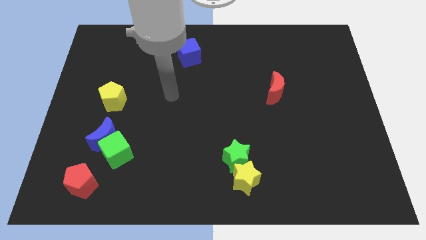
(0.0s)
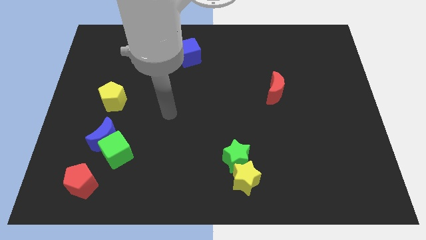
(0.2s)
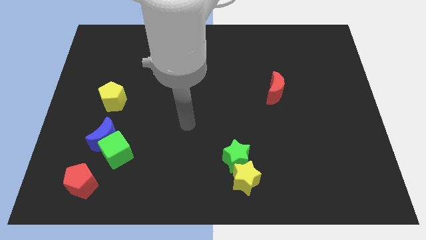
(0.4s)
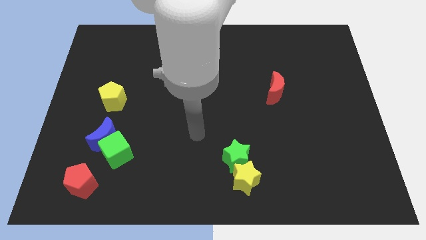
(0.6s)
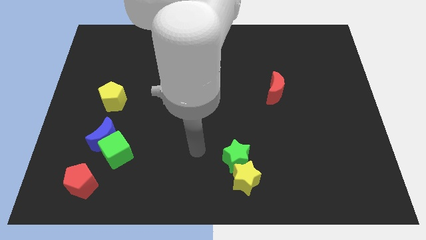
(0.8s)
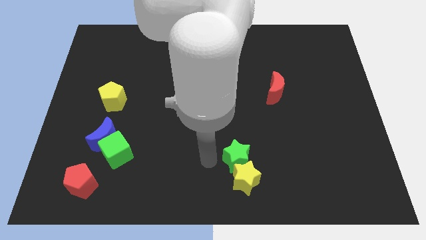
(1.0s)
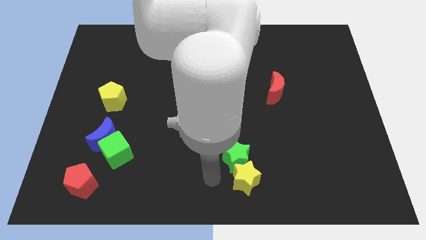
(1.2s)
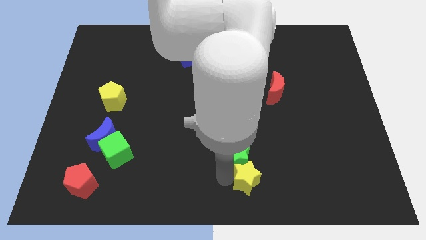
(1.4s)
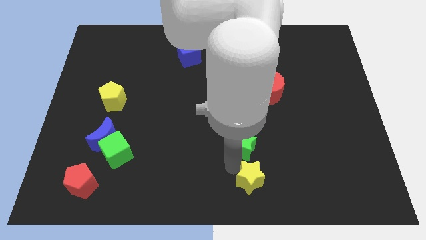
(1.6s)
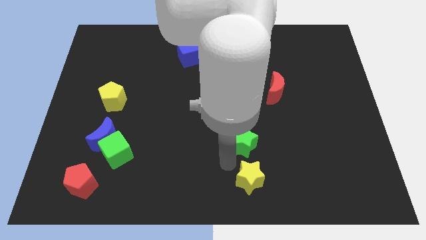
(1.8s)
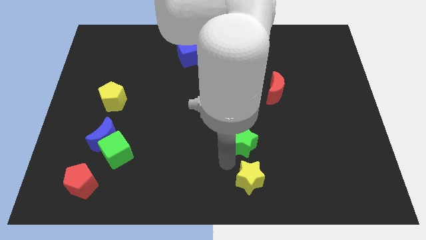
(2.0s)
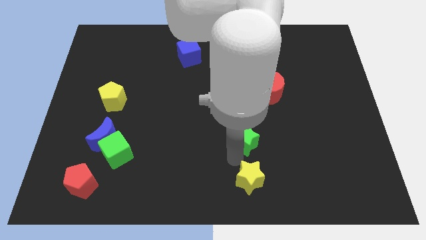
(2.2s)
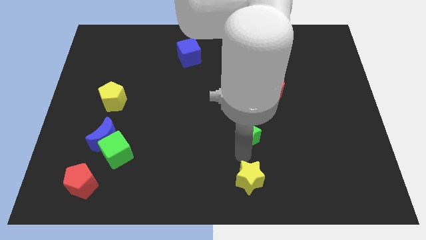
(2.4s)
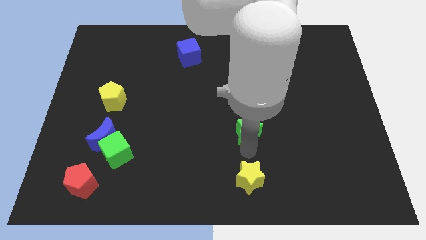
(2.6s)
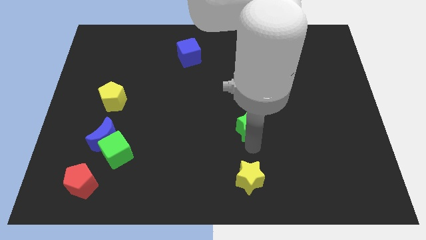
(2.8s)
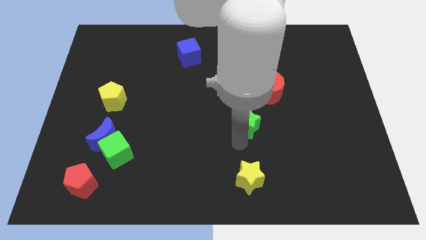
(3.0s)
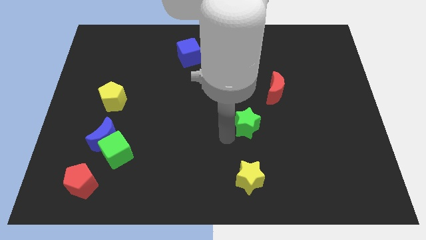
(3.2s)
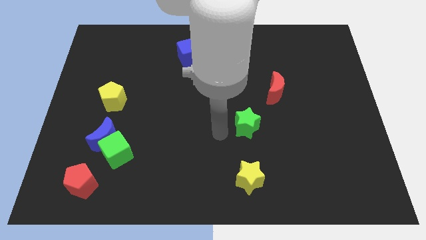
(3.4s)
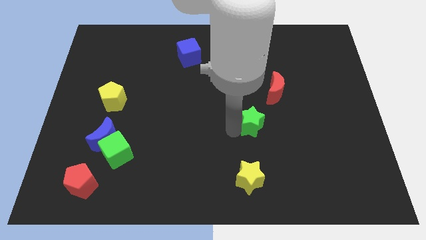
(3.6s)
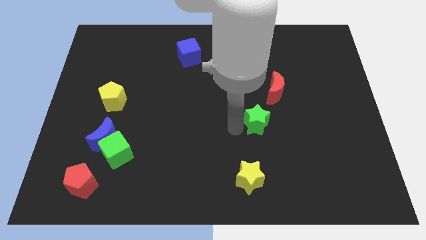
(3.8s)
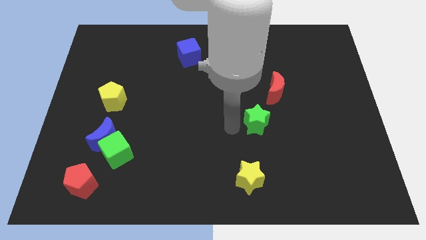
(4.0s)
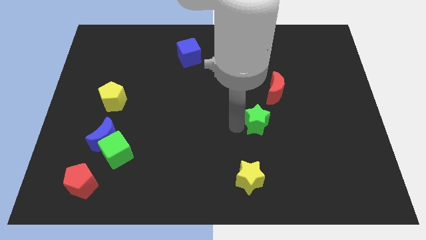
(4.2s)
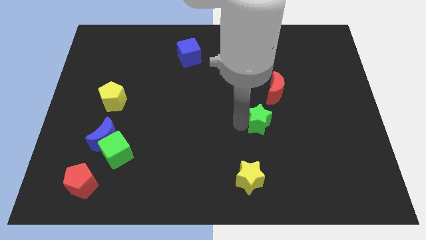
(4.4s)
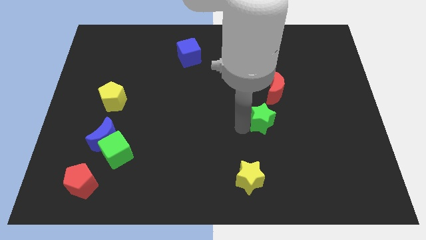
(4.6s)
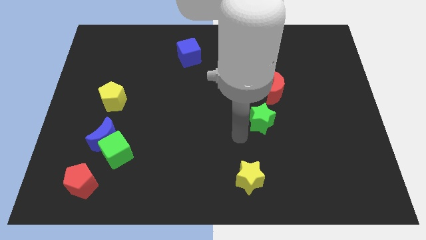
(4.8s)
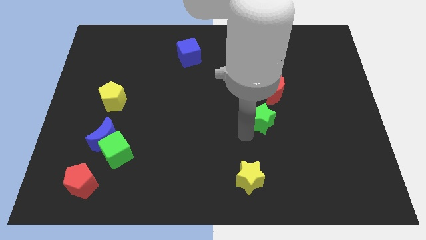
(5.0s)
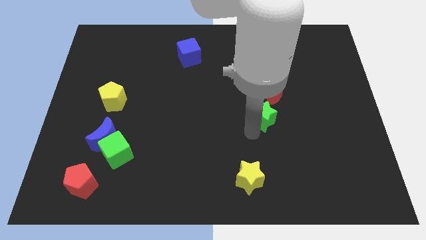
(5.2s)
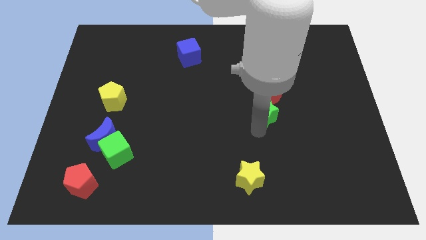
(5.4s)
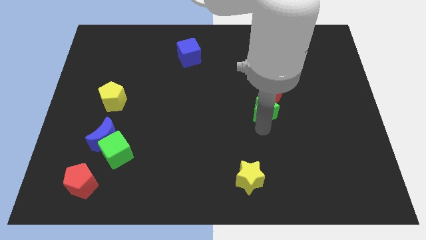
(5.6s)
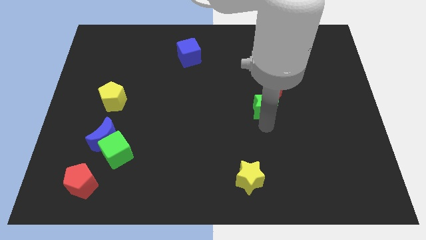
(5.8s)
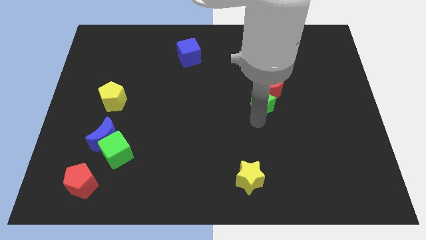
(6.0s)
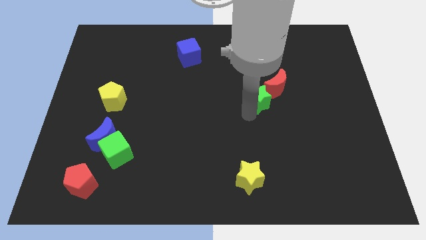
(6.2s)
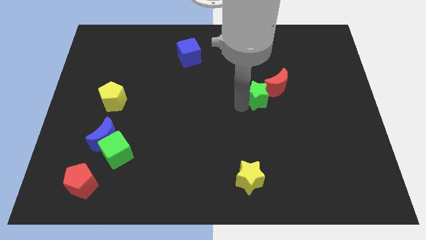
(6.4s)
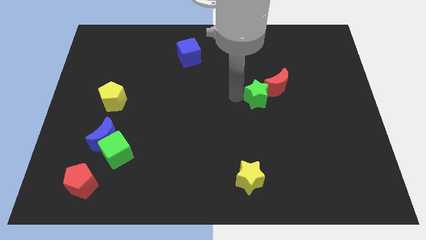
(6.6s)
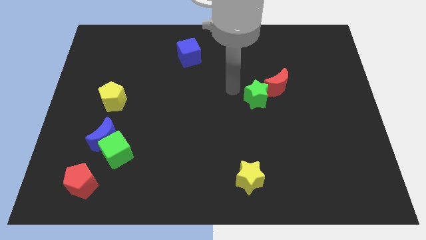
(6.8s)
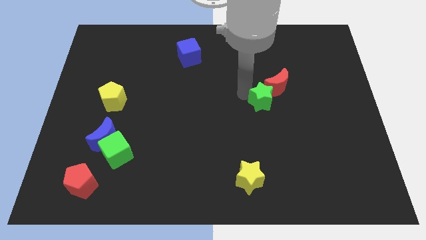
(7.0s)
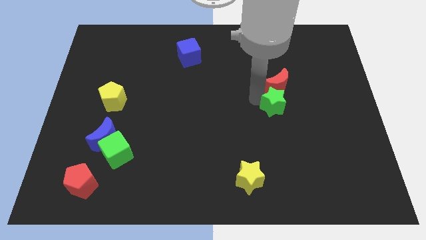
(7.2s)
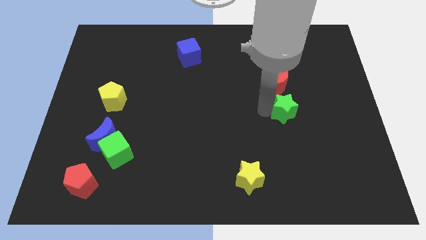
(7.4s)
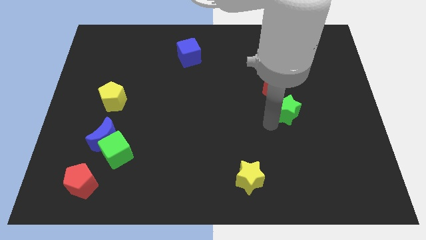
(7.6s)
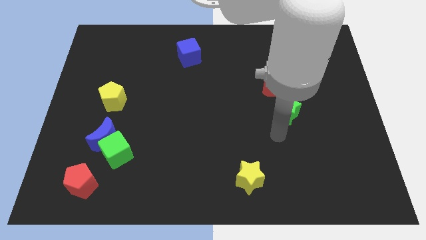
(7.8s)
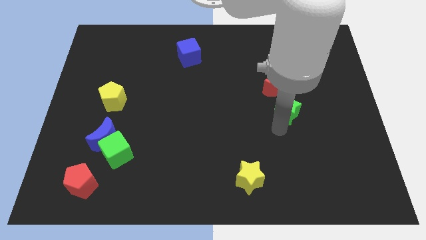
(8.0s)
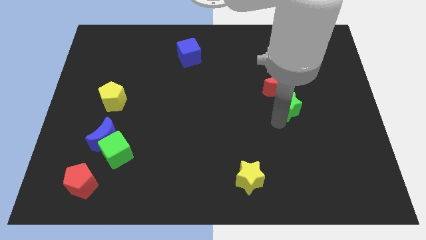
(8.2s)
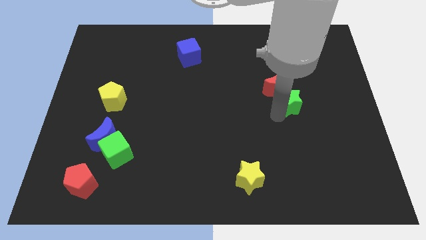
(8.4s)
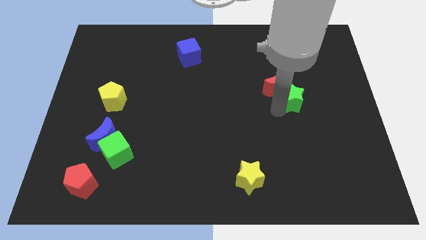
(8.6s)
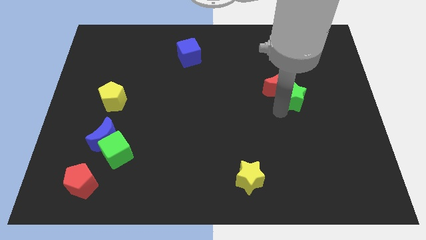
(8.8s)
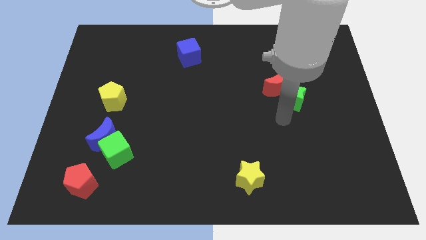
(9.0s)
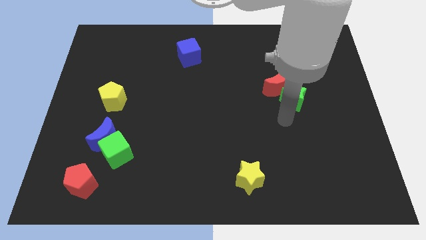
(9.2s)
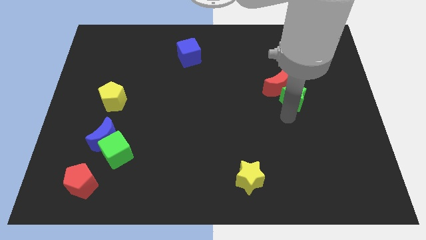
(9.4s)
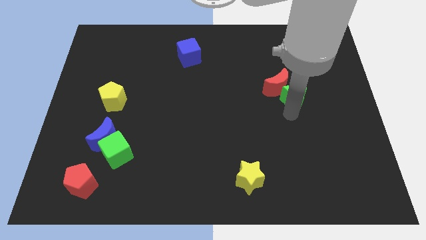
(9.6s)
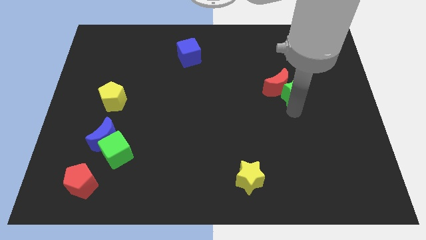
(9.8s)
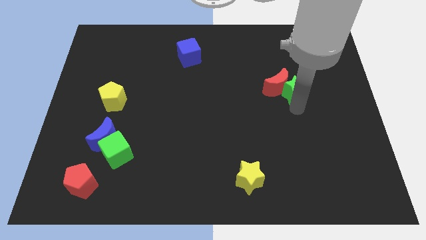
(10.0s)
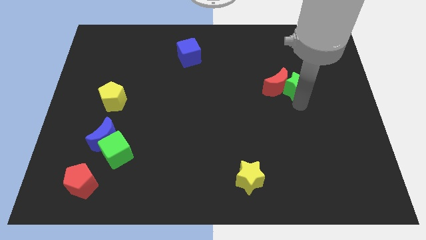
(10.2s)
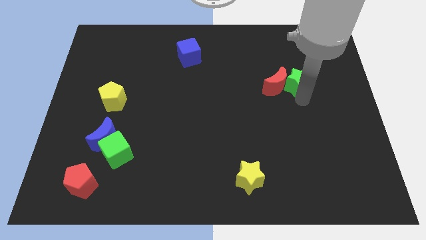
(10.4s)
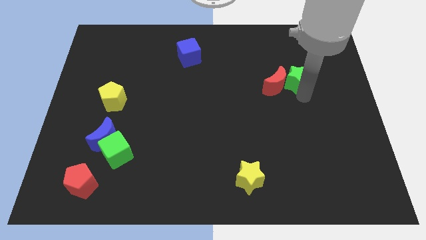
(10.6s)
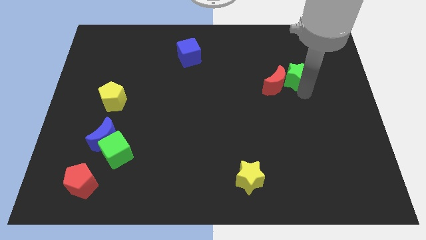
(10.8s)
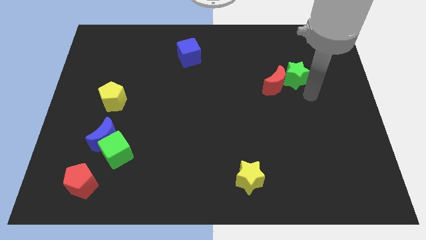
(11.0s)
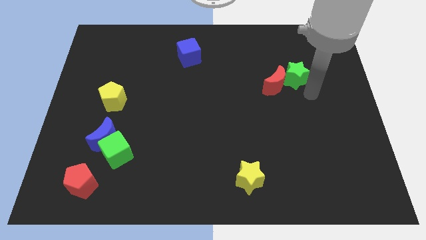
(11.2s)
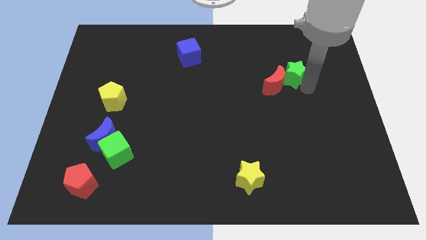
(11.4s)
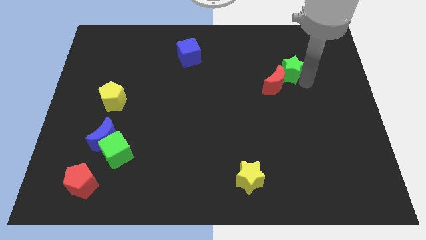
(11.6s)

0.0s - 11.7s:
put the green star above the red moon
